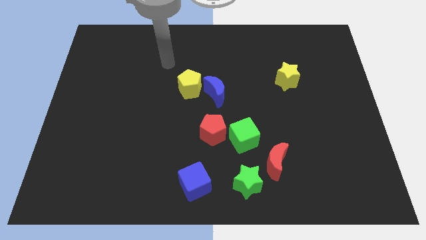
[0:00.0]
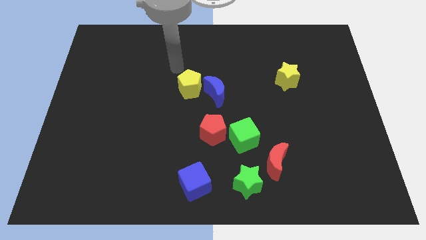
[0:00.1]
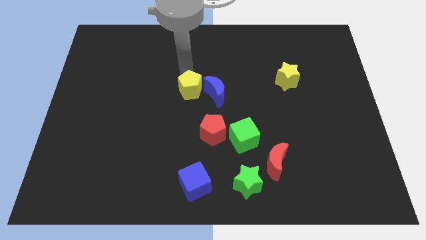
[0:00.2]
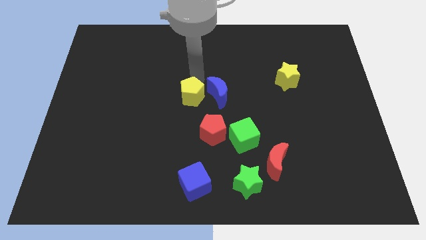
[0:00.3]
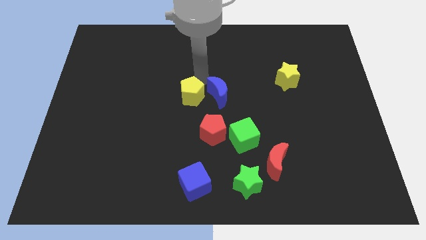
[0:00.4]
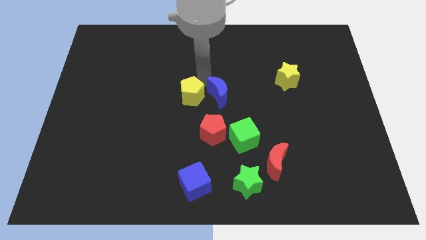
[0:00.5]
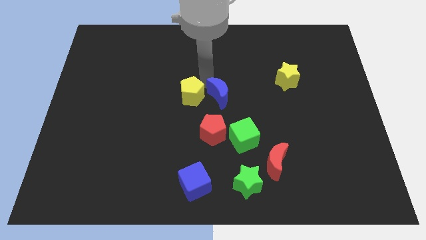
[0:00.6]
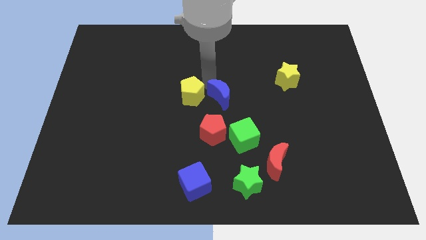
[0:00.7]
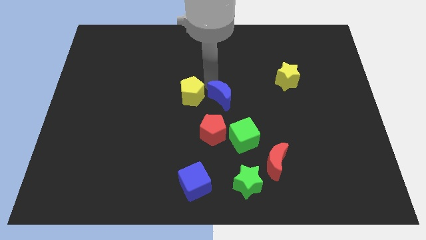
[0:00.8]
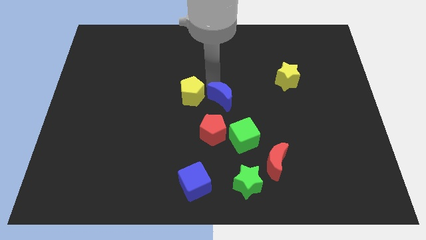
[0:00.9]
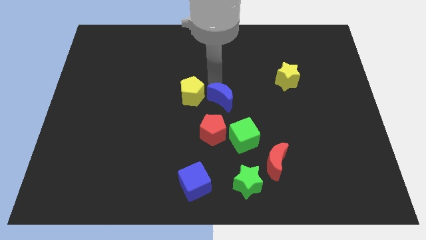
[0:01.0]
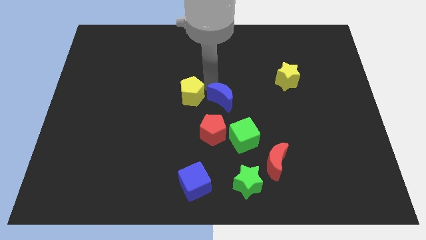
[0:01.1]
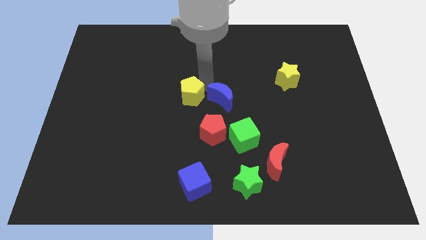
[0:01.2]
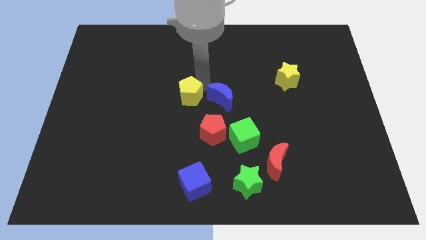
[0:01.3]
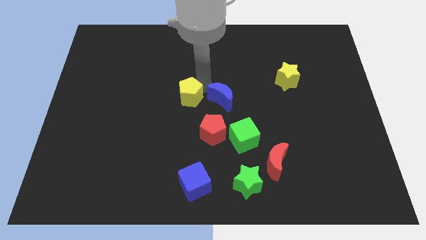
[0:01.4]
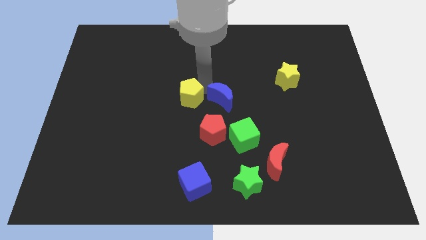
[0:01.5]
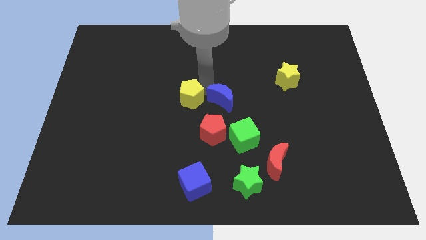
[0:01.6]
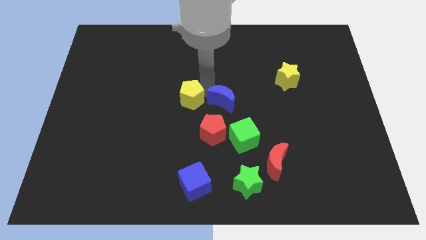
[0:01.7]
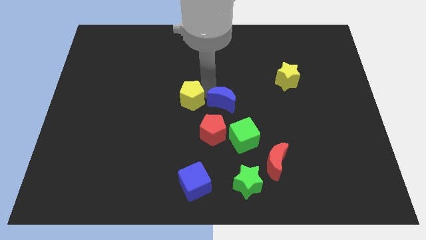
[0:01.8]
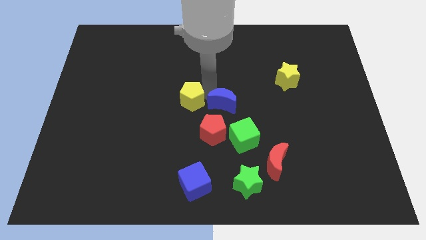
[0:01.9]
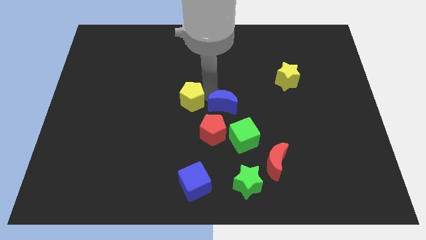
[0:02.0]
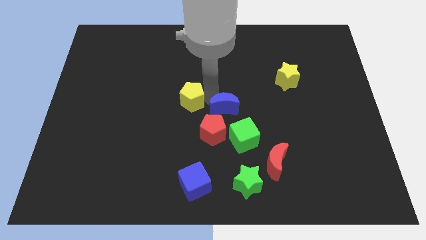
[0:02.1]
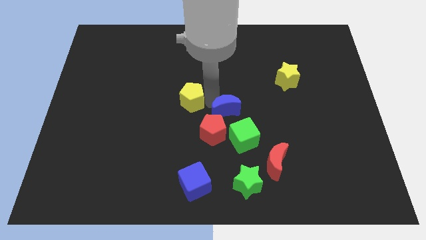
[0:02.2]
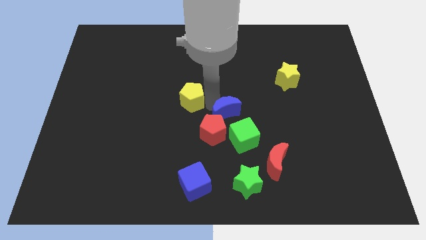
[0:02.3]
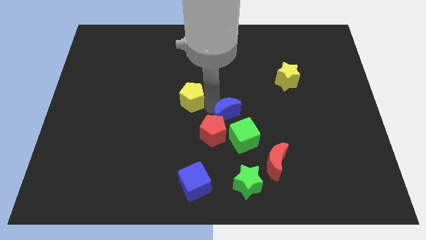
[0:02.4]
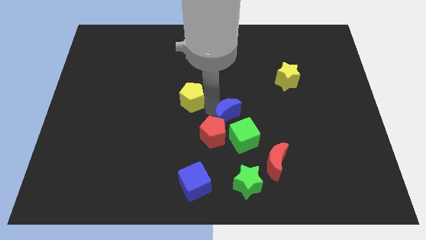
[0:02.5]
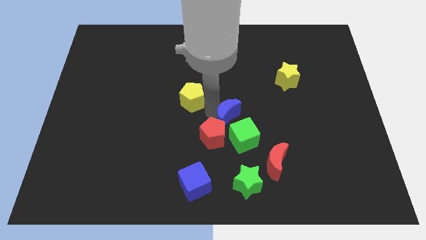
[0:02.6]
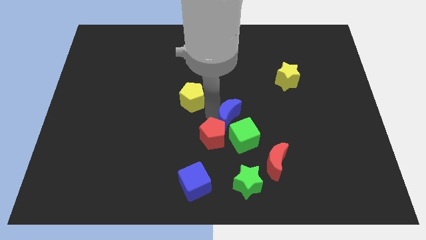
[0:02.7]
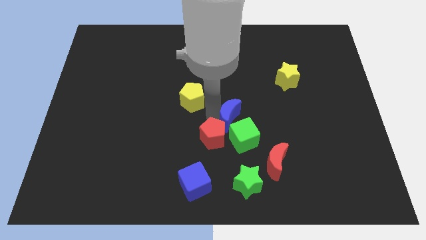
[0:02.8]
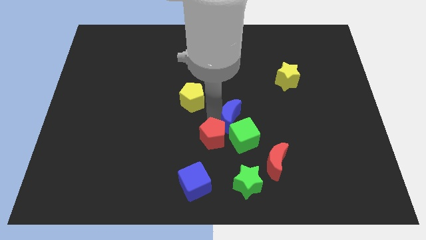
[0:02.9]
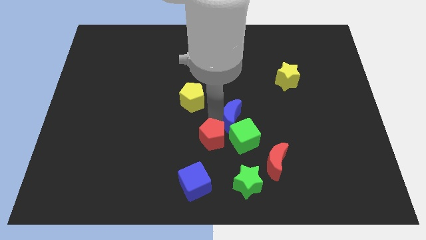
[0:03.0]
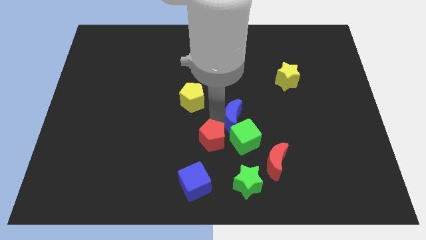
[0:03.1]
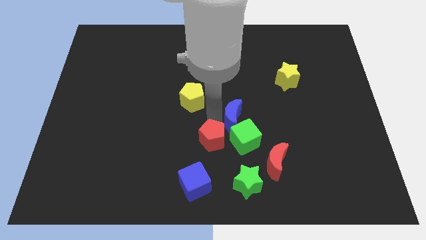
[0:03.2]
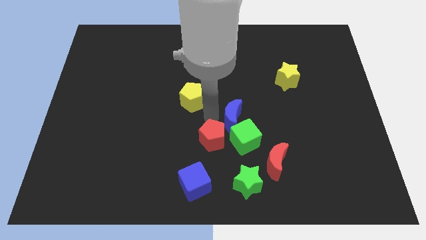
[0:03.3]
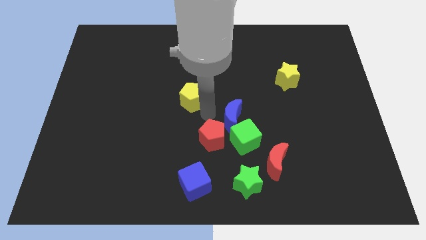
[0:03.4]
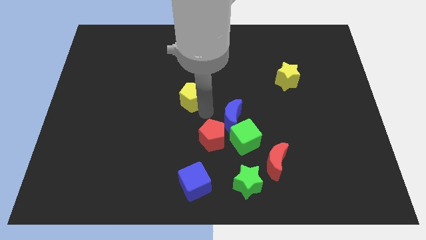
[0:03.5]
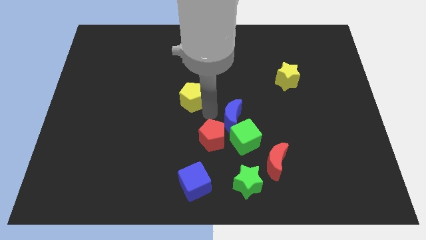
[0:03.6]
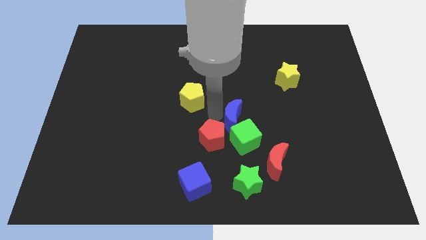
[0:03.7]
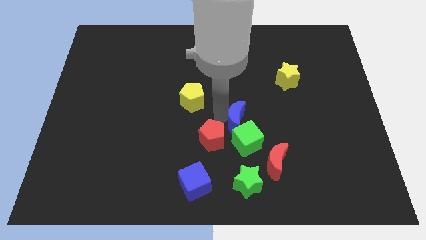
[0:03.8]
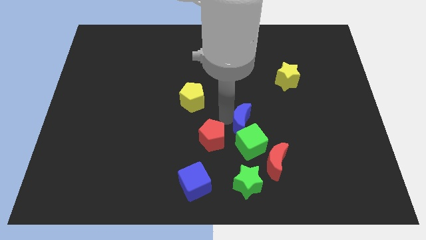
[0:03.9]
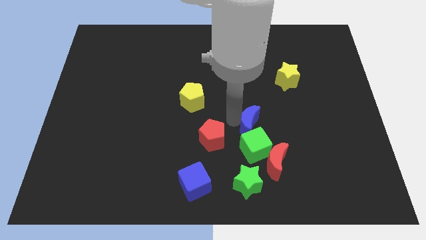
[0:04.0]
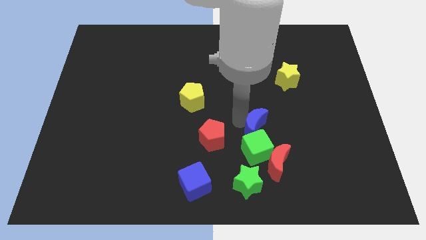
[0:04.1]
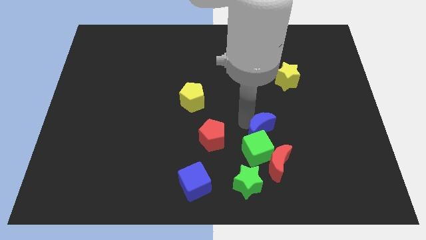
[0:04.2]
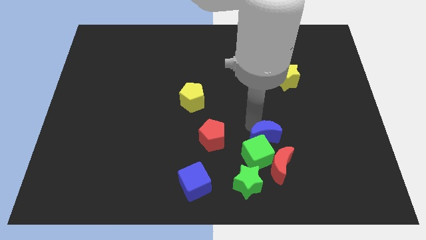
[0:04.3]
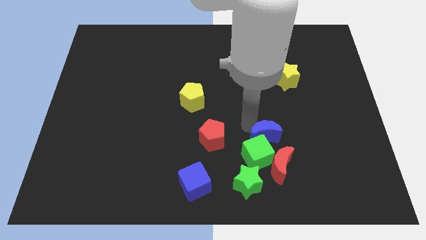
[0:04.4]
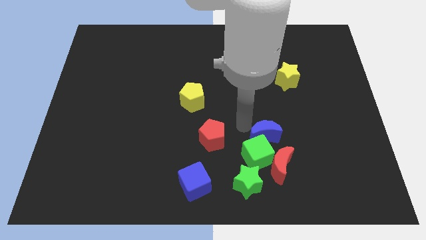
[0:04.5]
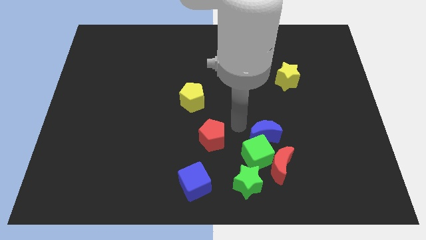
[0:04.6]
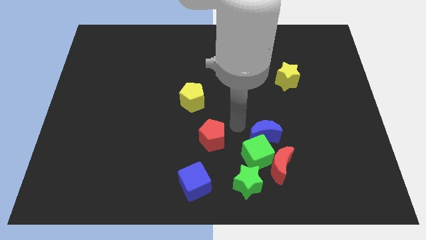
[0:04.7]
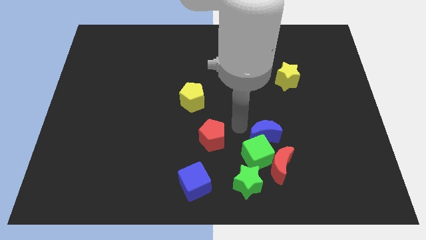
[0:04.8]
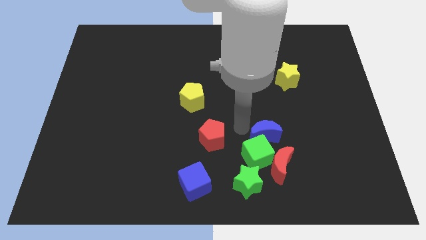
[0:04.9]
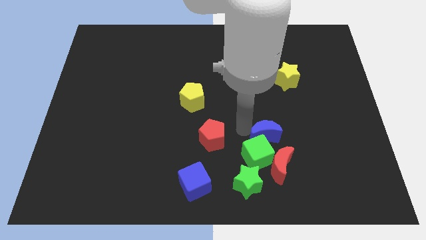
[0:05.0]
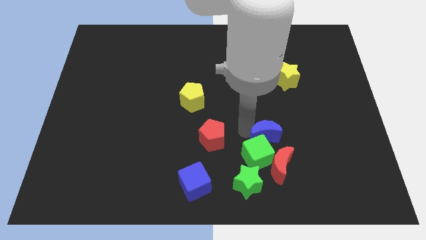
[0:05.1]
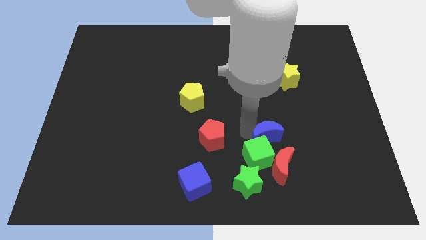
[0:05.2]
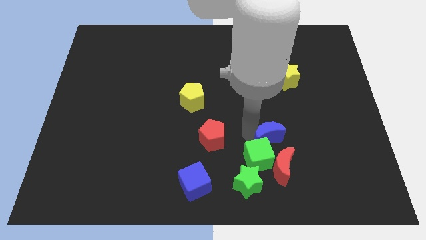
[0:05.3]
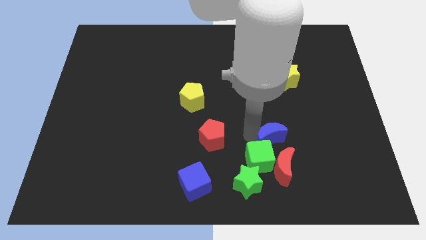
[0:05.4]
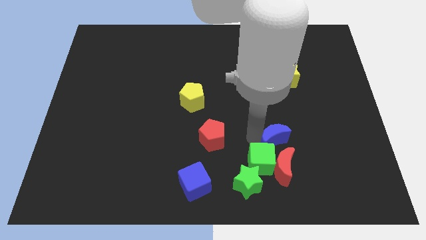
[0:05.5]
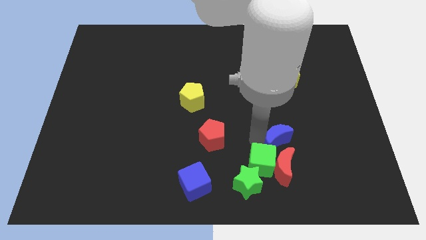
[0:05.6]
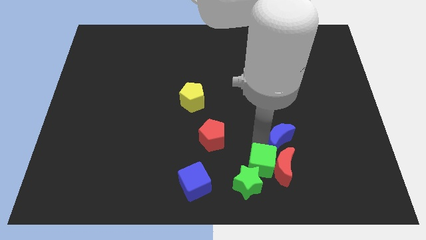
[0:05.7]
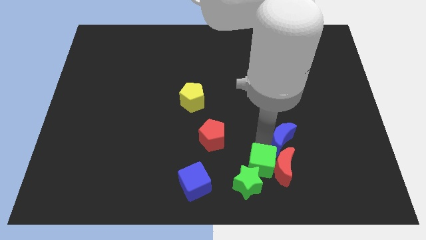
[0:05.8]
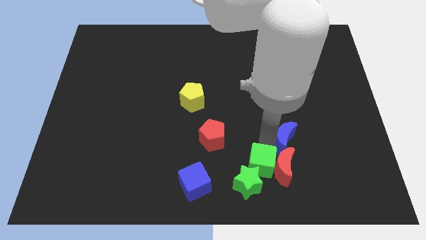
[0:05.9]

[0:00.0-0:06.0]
slide the blue moon downwards and to the right

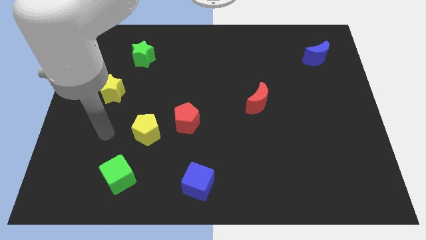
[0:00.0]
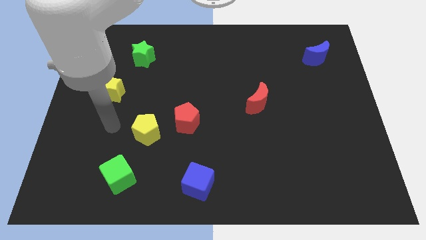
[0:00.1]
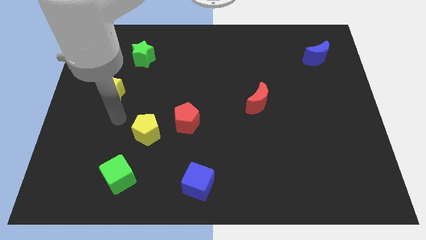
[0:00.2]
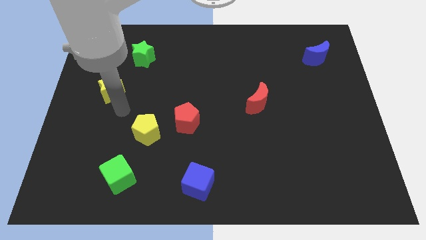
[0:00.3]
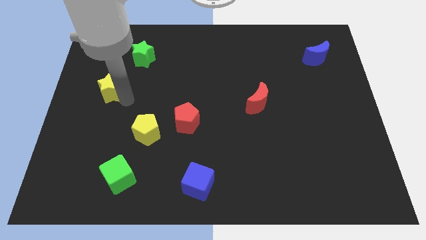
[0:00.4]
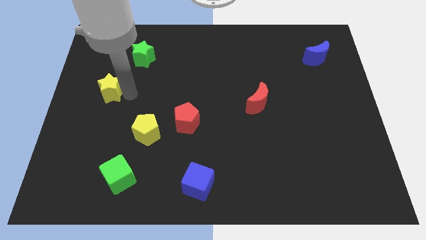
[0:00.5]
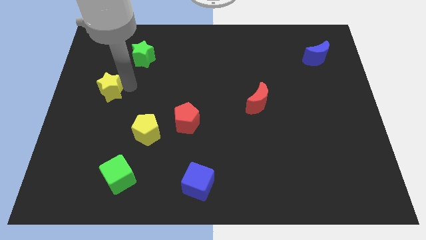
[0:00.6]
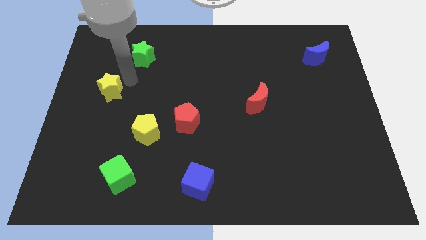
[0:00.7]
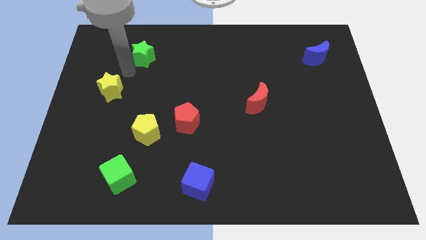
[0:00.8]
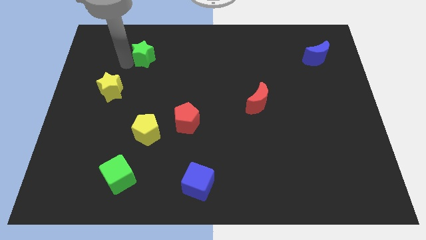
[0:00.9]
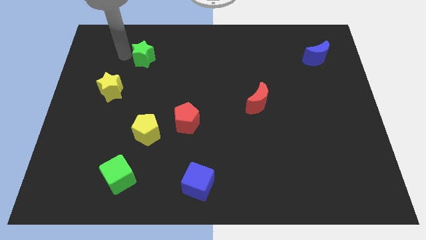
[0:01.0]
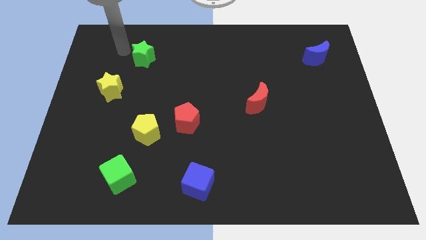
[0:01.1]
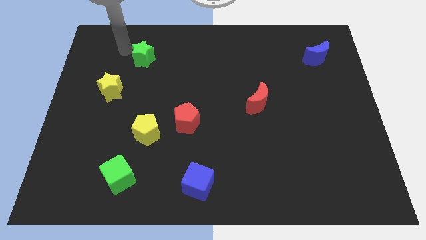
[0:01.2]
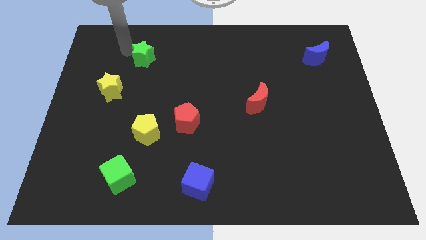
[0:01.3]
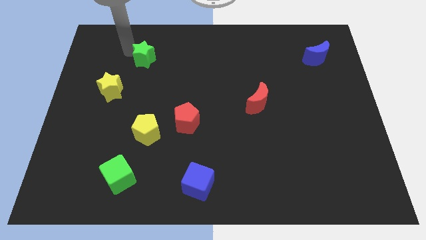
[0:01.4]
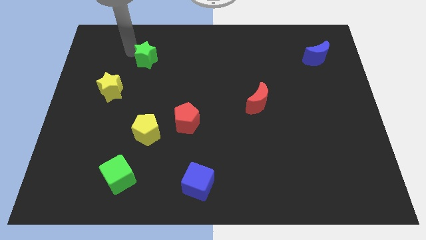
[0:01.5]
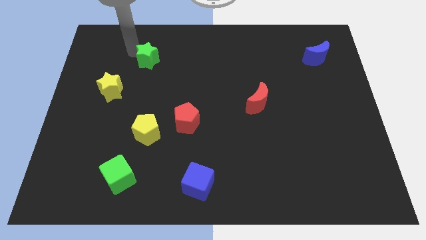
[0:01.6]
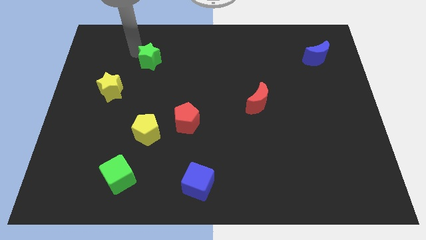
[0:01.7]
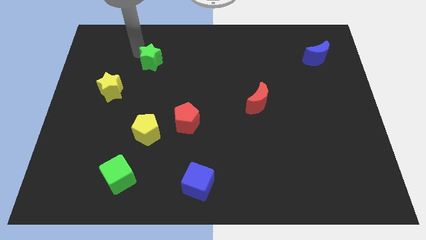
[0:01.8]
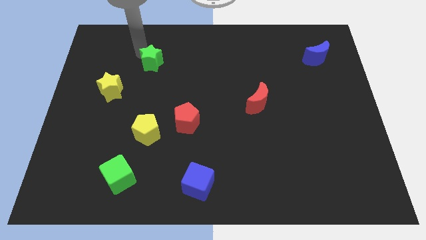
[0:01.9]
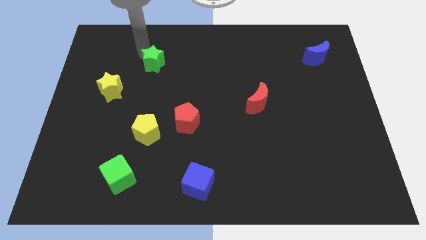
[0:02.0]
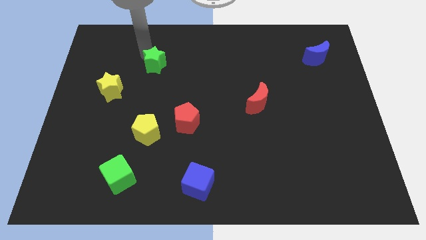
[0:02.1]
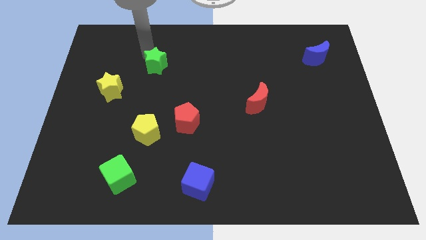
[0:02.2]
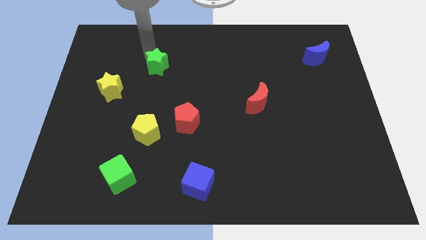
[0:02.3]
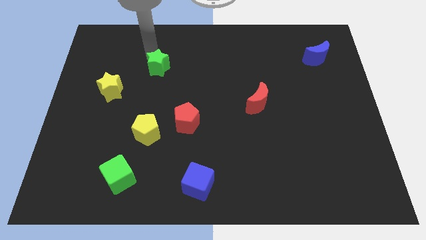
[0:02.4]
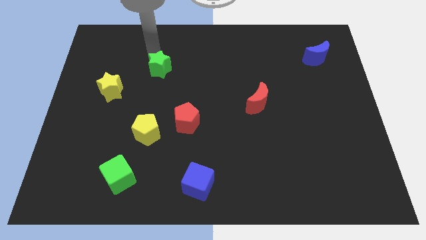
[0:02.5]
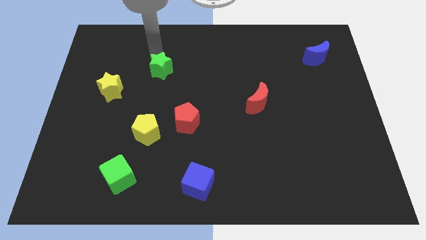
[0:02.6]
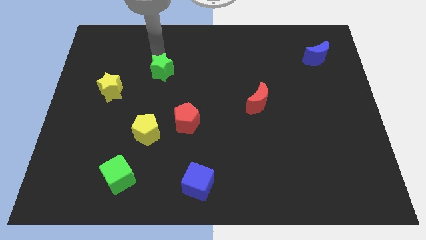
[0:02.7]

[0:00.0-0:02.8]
slightly push the green star downwards and then to the right
